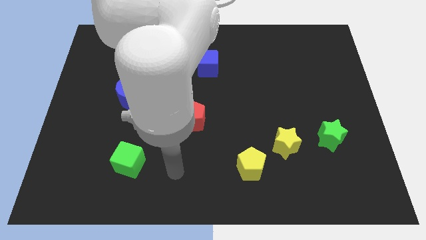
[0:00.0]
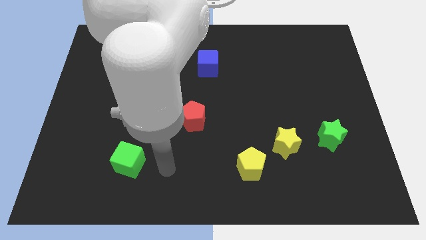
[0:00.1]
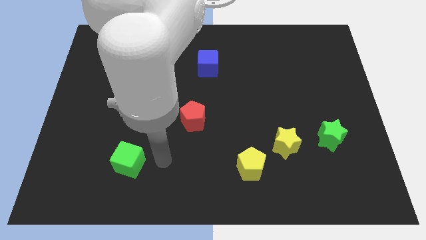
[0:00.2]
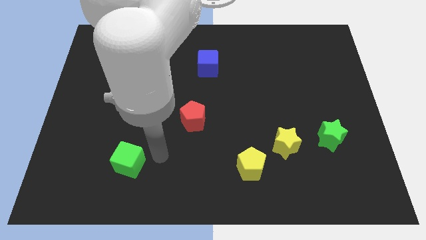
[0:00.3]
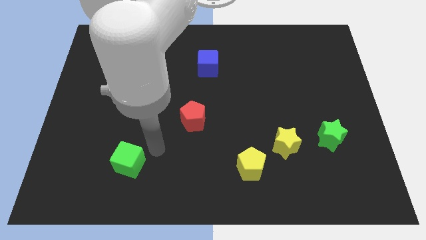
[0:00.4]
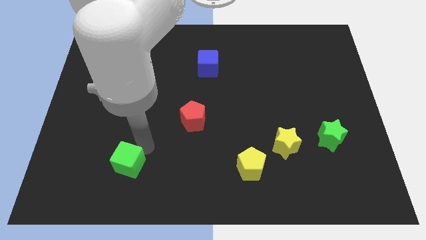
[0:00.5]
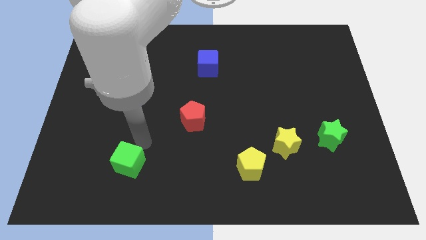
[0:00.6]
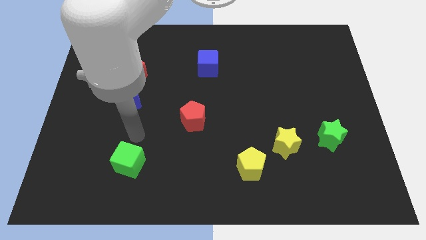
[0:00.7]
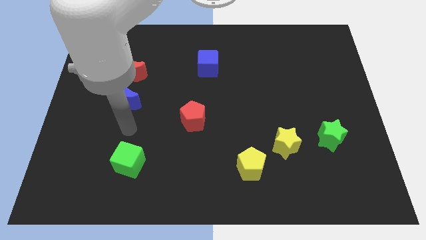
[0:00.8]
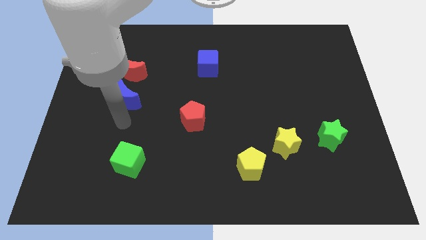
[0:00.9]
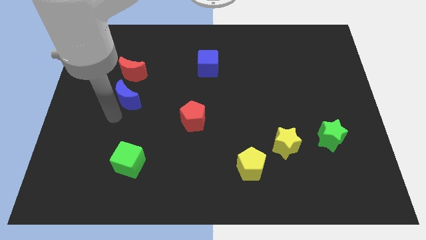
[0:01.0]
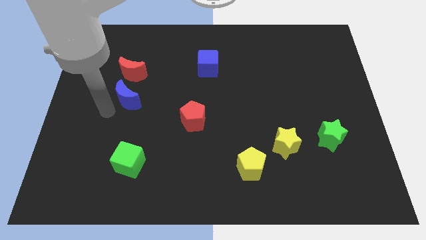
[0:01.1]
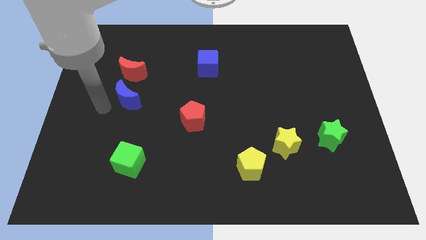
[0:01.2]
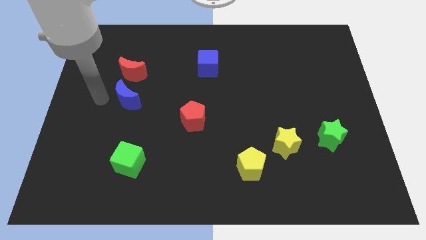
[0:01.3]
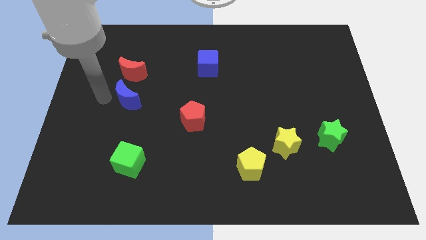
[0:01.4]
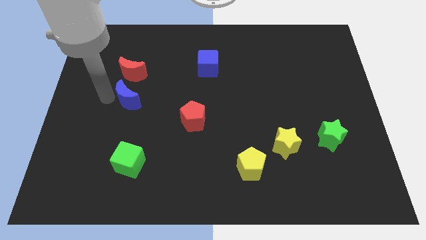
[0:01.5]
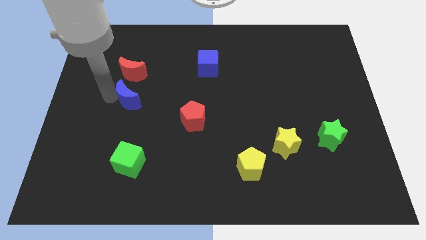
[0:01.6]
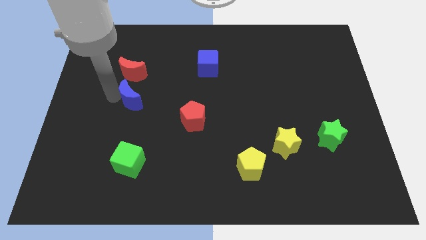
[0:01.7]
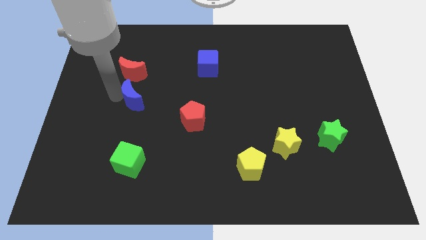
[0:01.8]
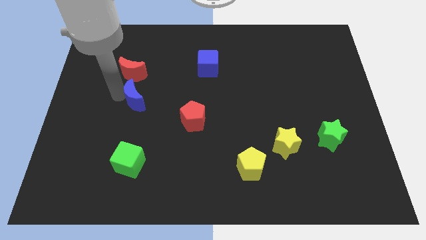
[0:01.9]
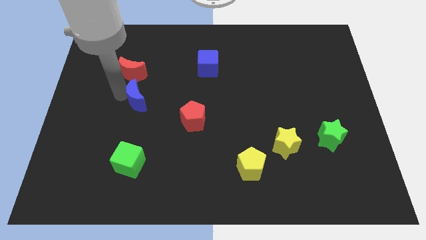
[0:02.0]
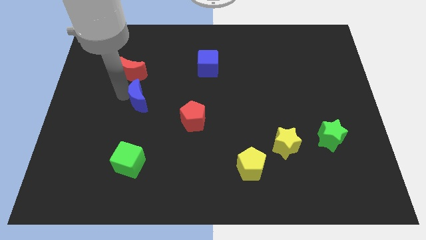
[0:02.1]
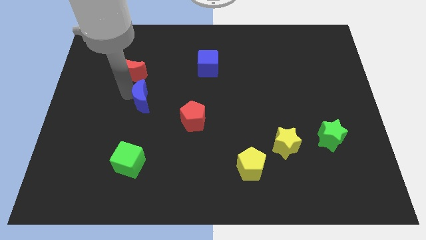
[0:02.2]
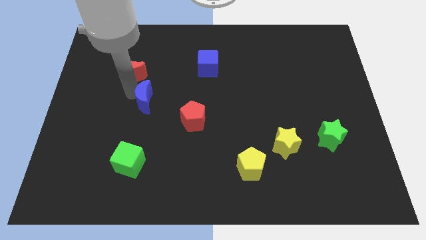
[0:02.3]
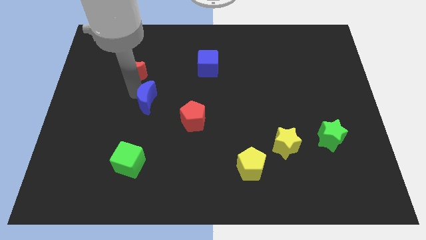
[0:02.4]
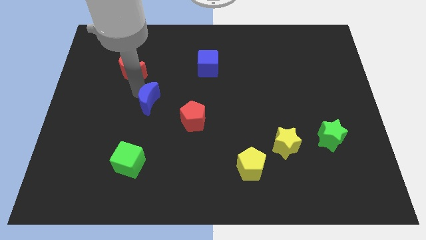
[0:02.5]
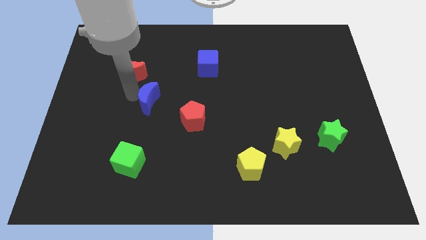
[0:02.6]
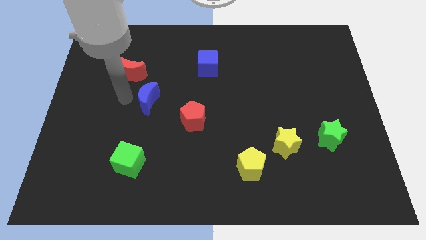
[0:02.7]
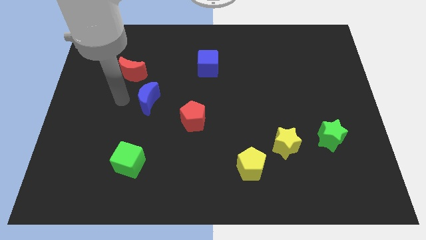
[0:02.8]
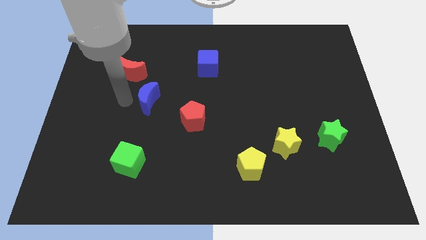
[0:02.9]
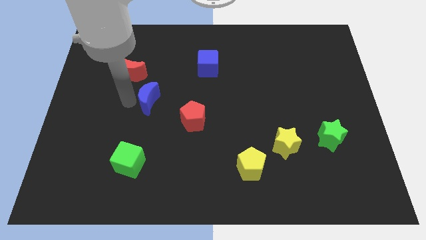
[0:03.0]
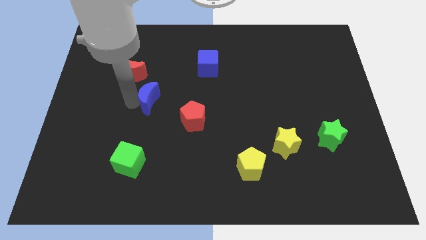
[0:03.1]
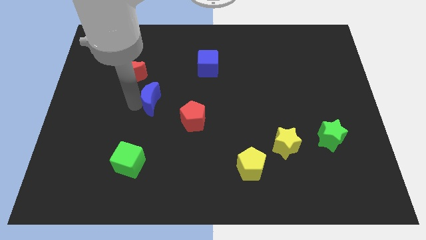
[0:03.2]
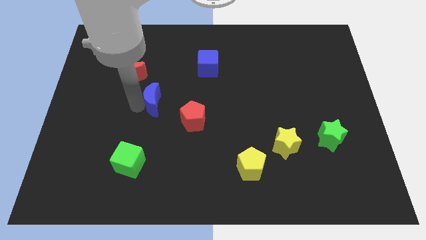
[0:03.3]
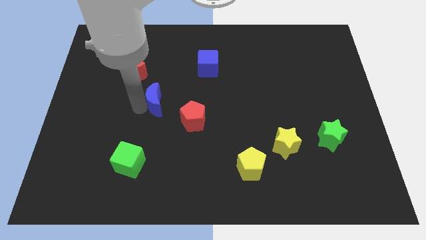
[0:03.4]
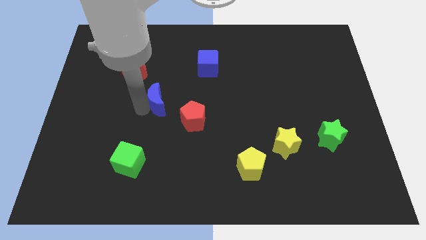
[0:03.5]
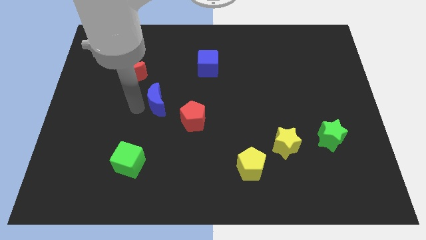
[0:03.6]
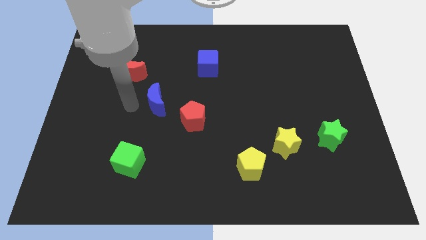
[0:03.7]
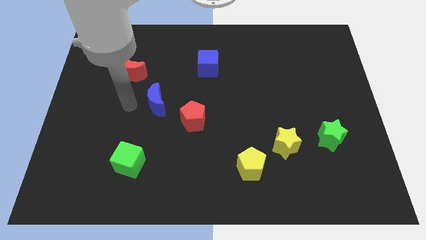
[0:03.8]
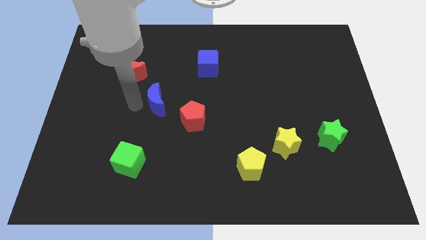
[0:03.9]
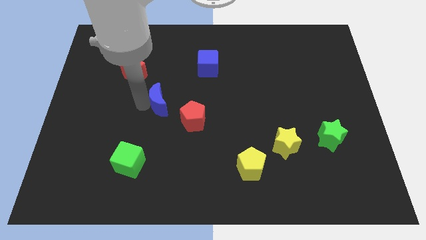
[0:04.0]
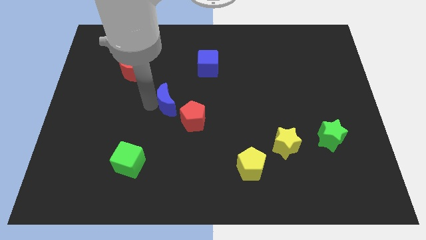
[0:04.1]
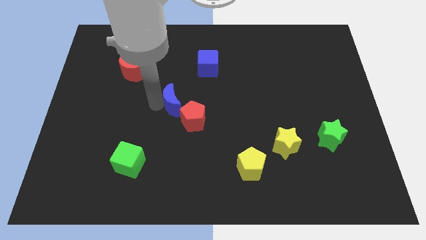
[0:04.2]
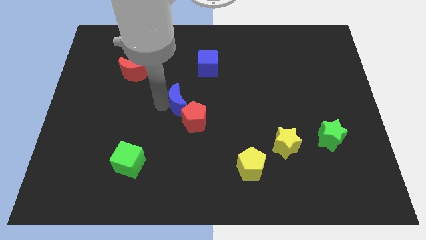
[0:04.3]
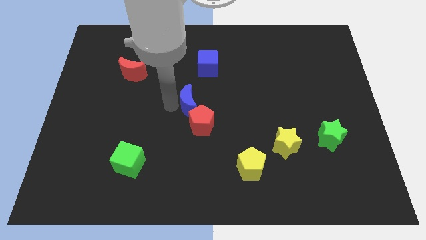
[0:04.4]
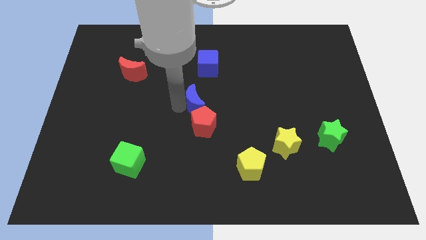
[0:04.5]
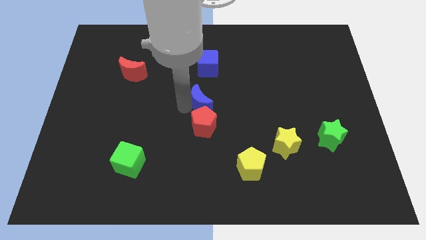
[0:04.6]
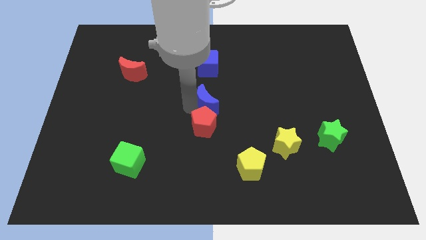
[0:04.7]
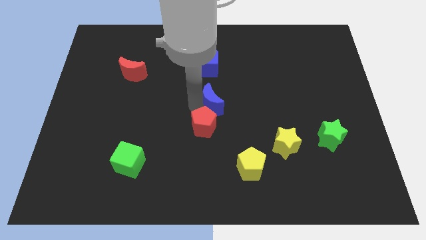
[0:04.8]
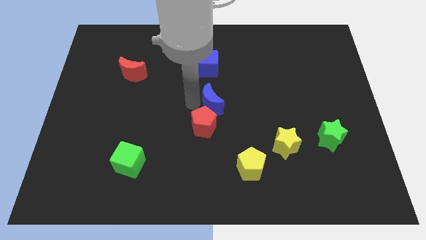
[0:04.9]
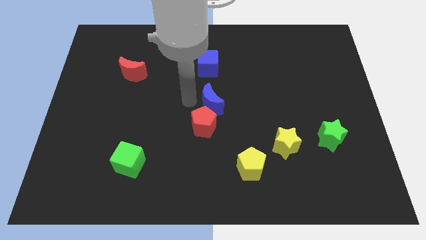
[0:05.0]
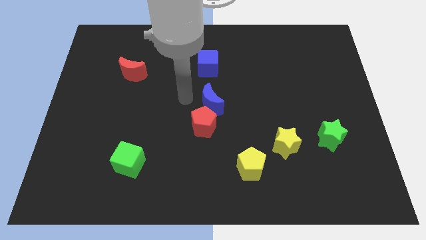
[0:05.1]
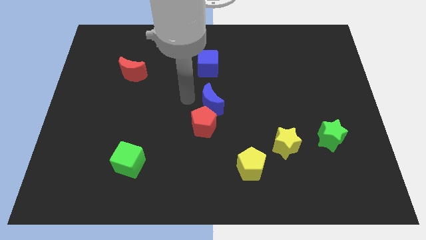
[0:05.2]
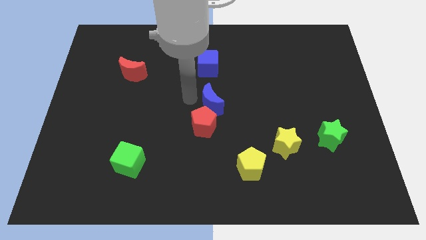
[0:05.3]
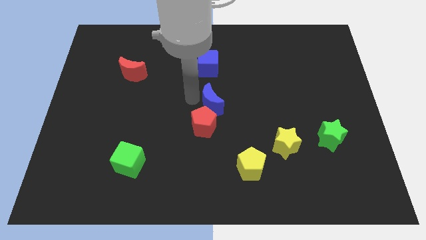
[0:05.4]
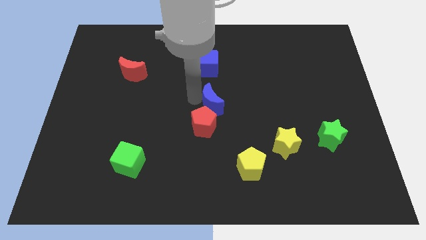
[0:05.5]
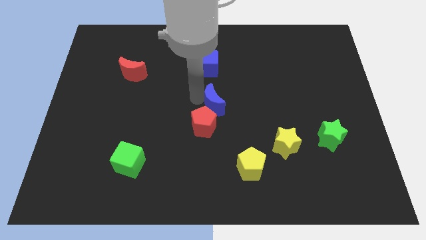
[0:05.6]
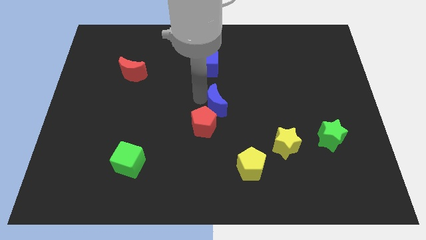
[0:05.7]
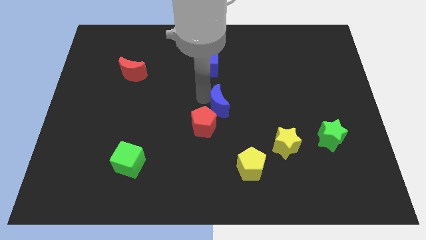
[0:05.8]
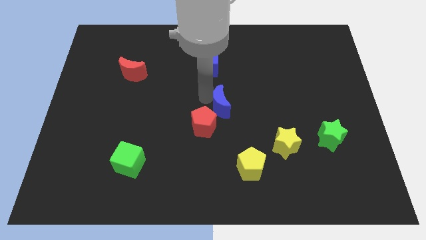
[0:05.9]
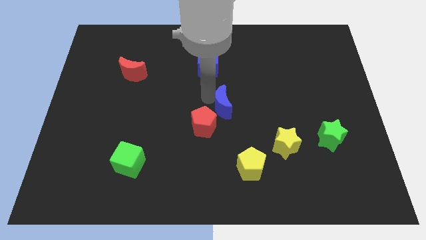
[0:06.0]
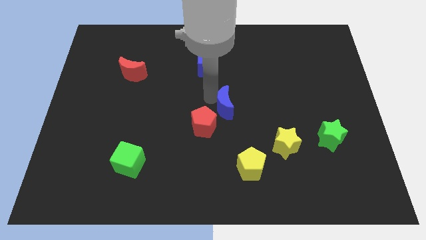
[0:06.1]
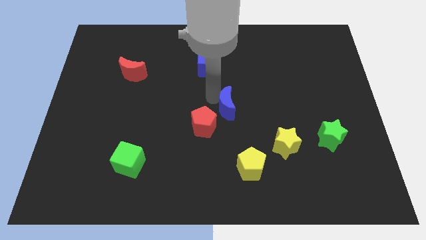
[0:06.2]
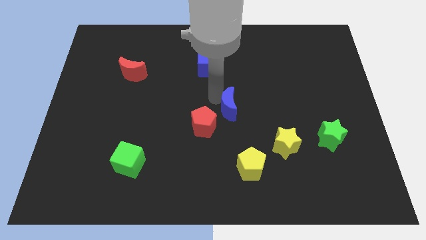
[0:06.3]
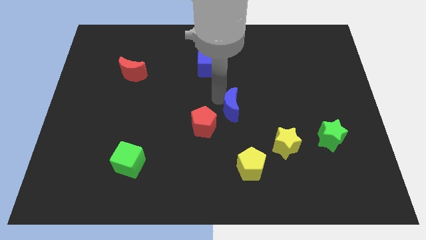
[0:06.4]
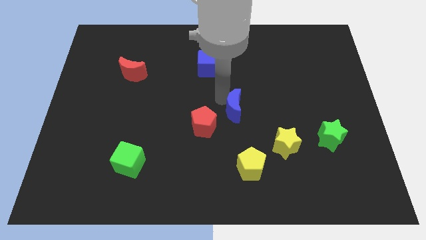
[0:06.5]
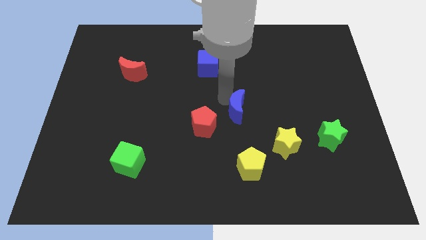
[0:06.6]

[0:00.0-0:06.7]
push the blue moon to the top of the yellow pentagon
